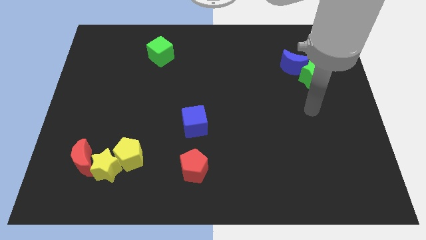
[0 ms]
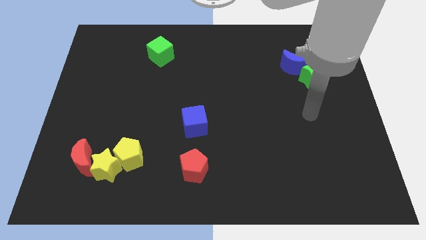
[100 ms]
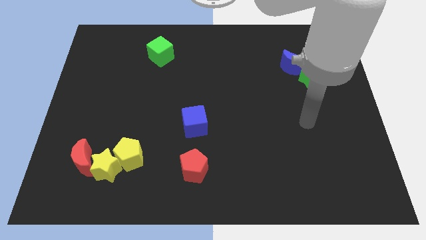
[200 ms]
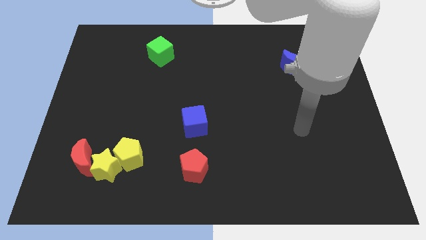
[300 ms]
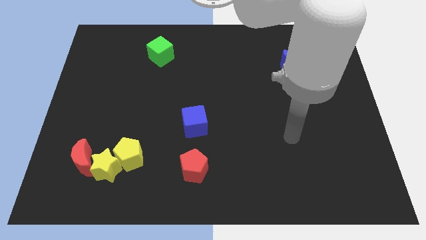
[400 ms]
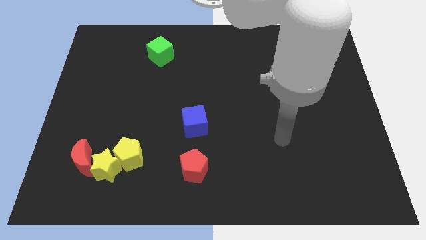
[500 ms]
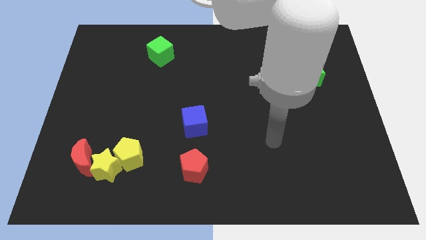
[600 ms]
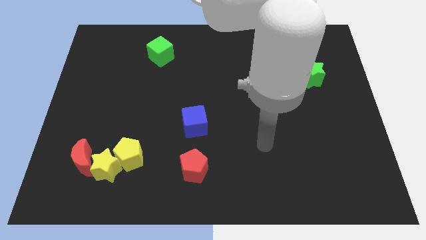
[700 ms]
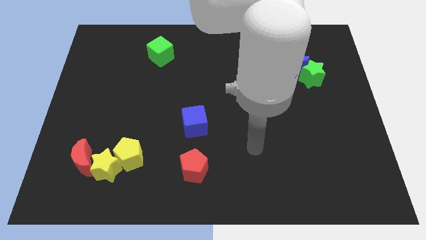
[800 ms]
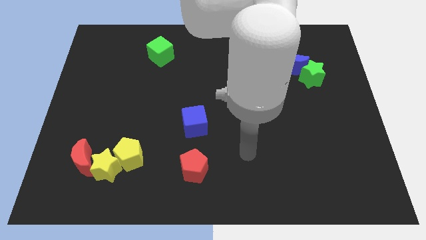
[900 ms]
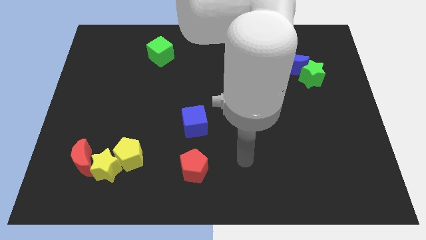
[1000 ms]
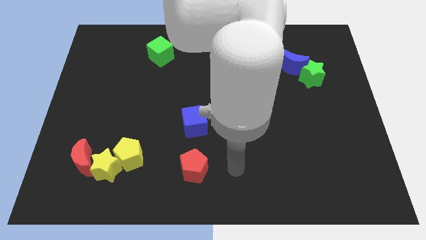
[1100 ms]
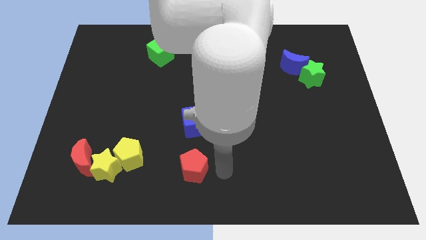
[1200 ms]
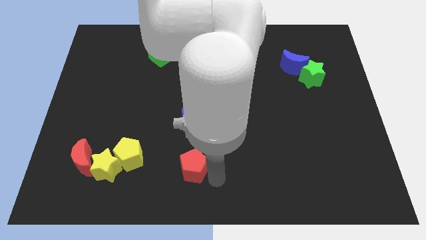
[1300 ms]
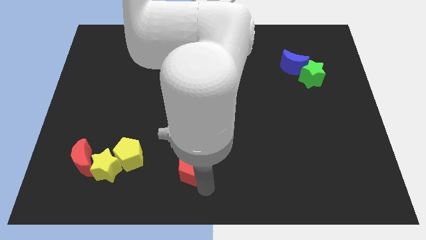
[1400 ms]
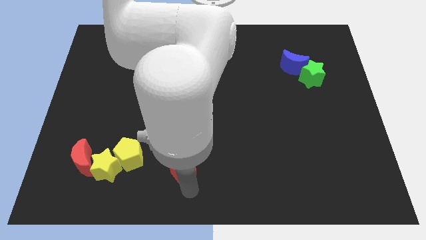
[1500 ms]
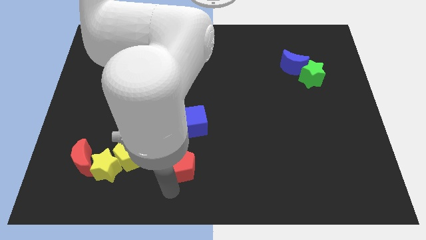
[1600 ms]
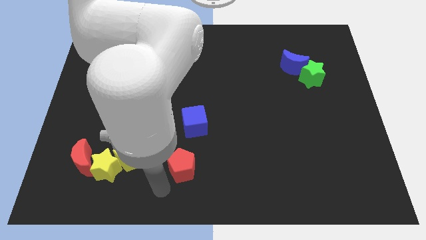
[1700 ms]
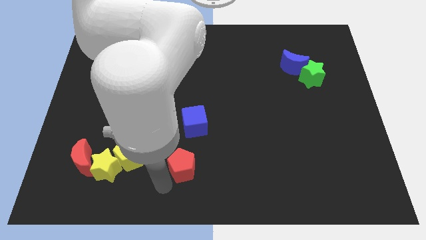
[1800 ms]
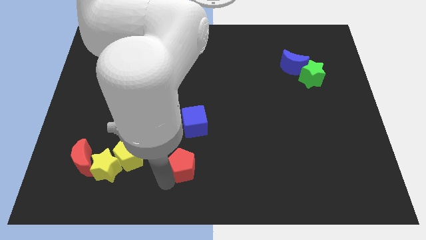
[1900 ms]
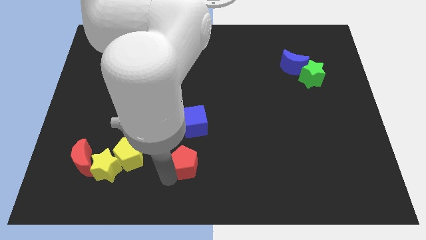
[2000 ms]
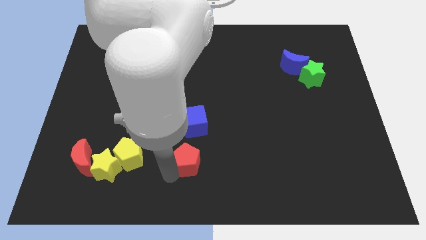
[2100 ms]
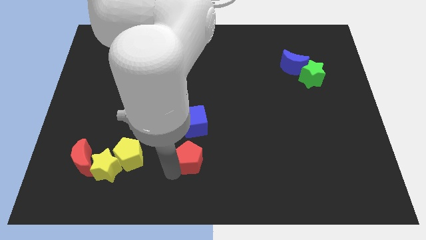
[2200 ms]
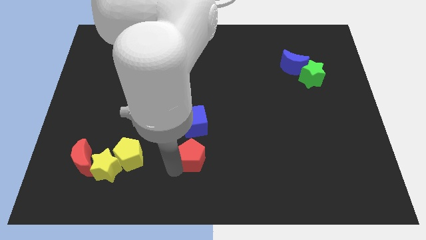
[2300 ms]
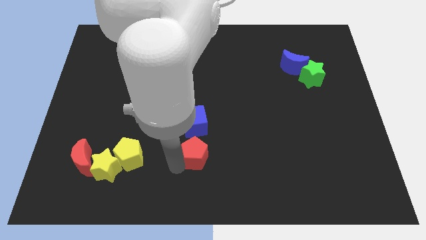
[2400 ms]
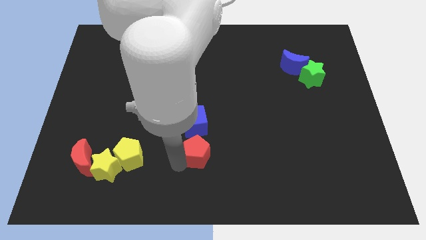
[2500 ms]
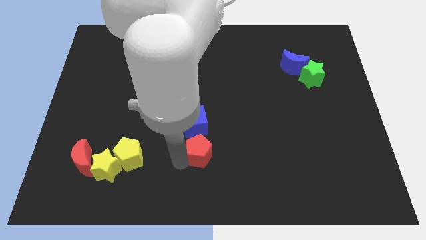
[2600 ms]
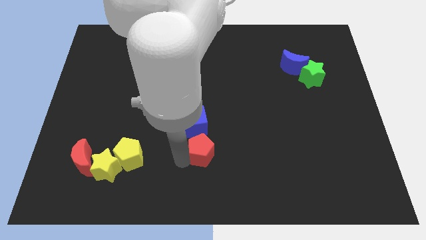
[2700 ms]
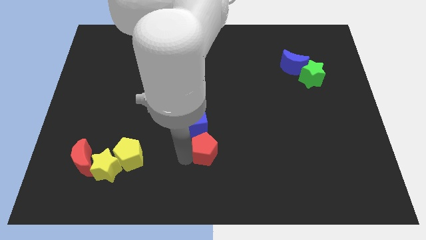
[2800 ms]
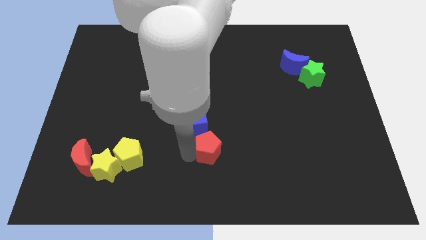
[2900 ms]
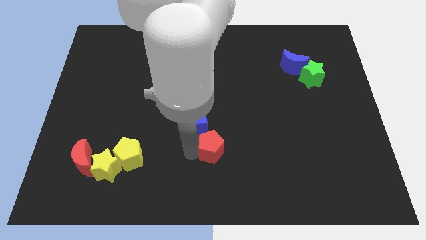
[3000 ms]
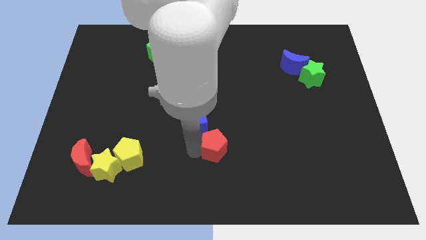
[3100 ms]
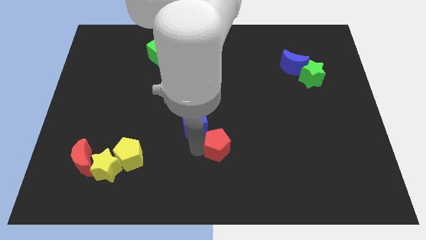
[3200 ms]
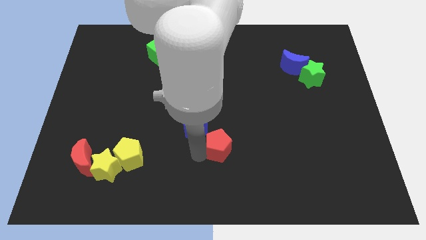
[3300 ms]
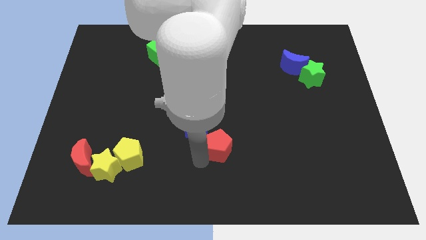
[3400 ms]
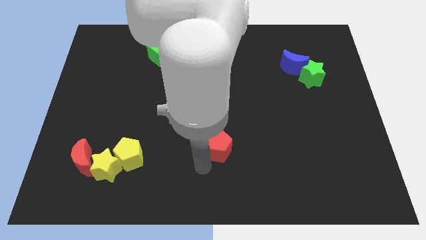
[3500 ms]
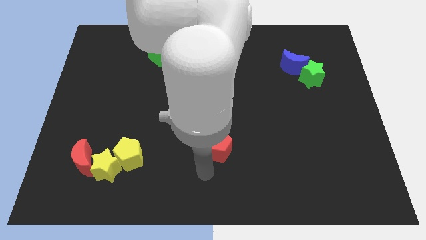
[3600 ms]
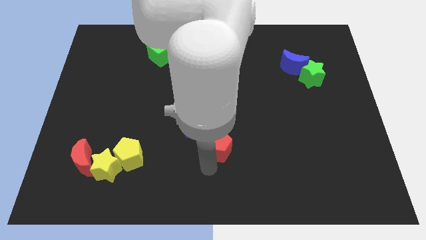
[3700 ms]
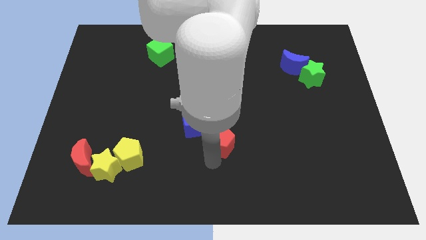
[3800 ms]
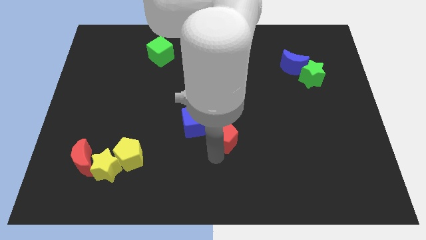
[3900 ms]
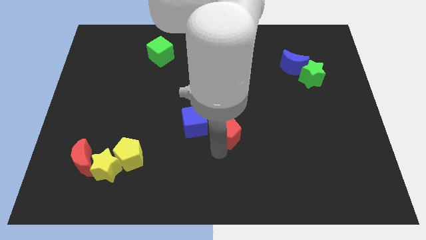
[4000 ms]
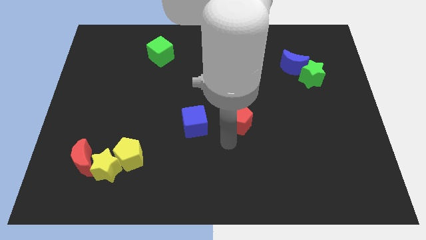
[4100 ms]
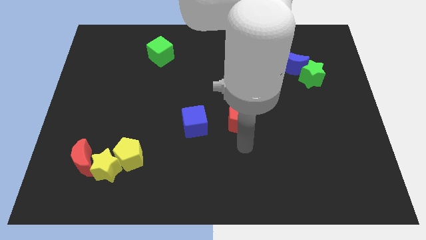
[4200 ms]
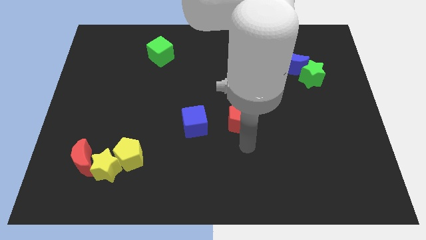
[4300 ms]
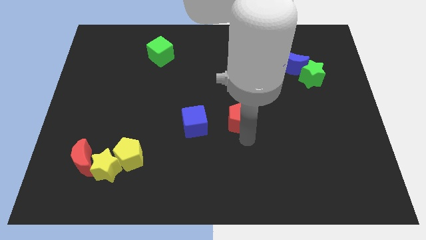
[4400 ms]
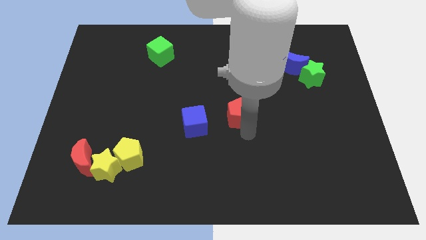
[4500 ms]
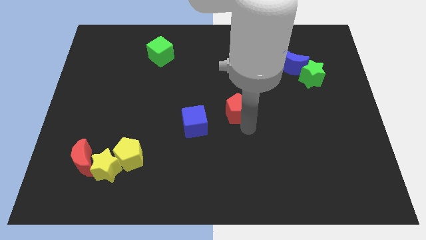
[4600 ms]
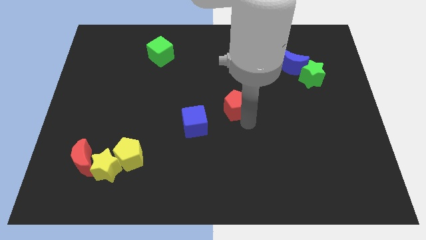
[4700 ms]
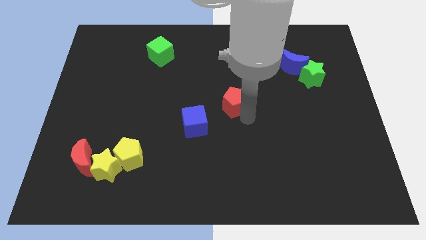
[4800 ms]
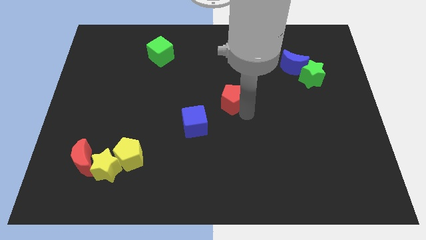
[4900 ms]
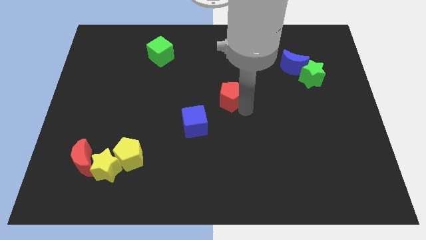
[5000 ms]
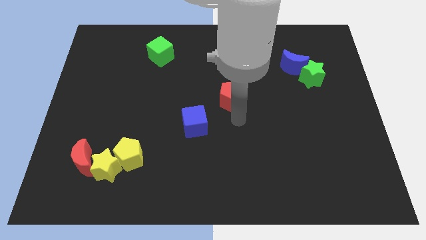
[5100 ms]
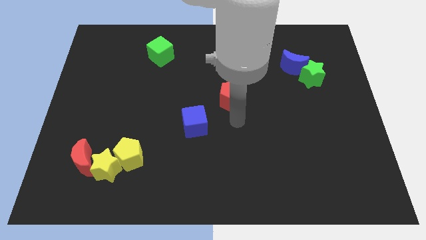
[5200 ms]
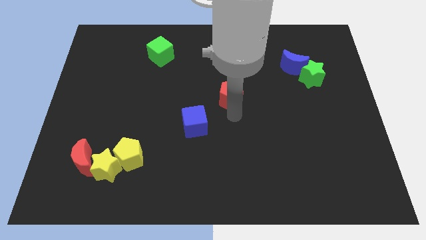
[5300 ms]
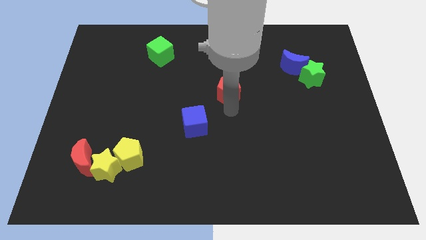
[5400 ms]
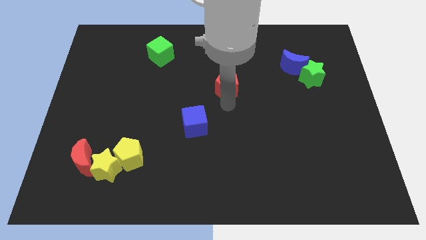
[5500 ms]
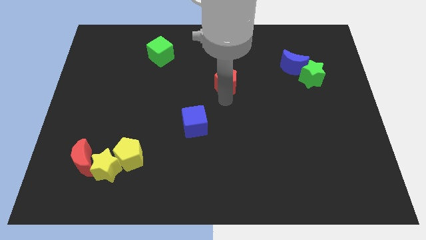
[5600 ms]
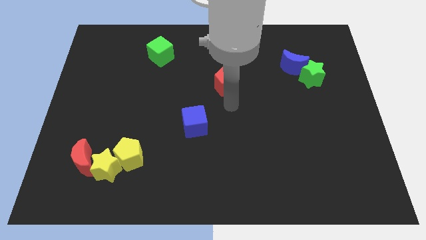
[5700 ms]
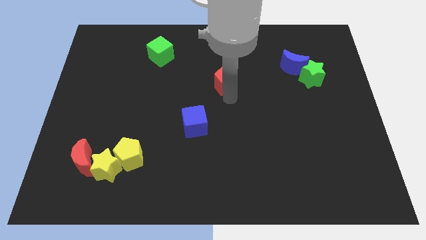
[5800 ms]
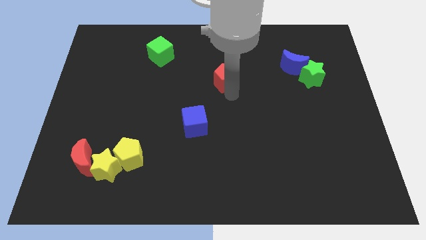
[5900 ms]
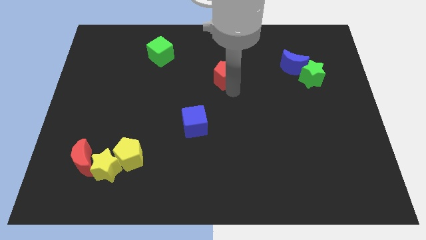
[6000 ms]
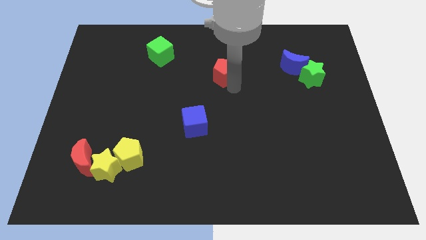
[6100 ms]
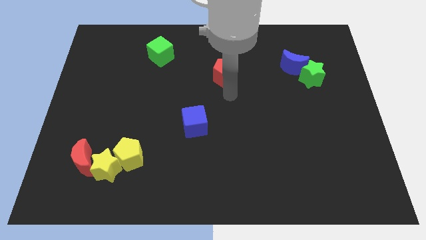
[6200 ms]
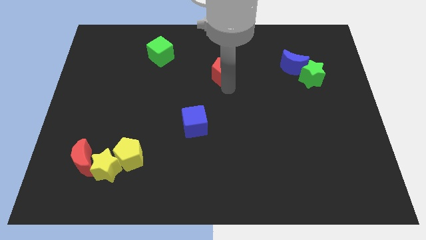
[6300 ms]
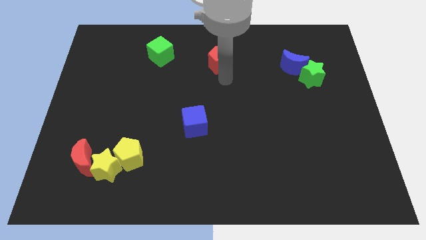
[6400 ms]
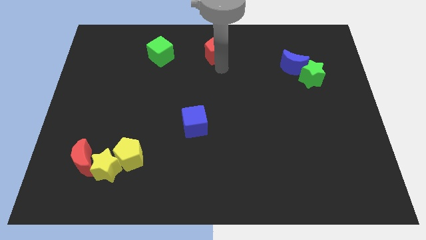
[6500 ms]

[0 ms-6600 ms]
slide the red pentagon to the top
